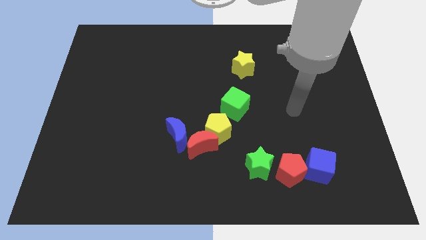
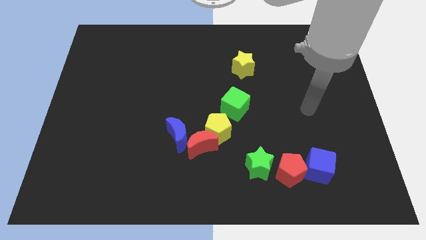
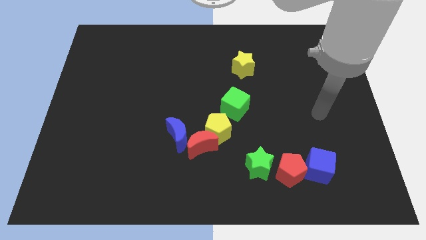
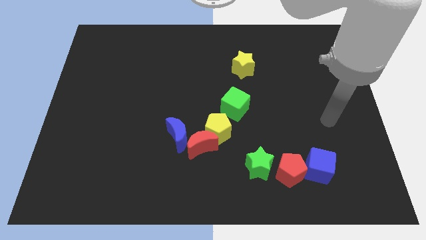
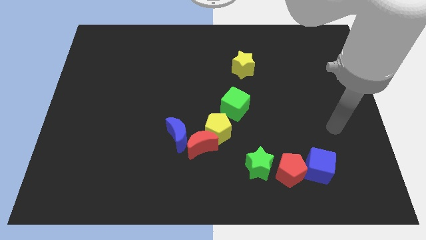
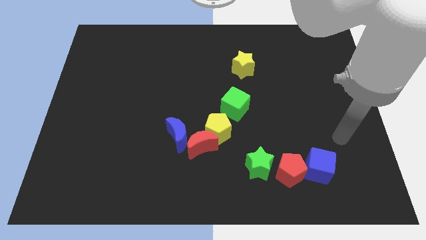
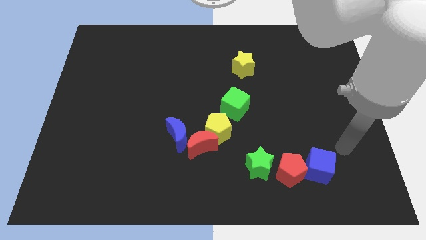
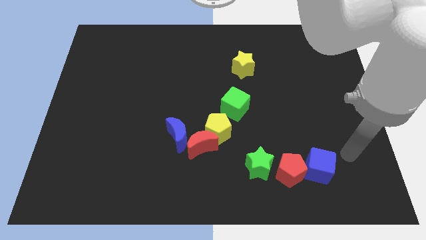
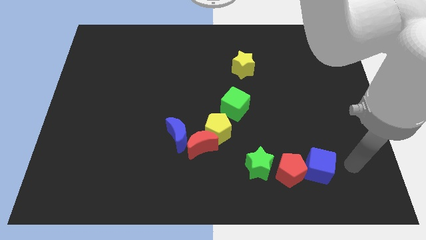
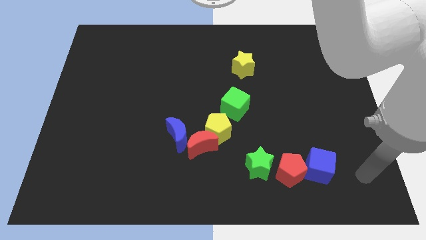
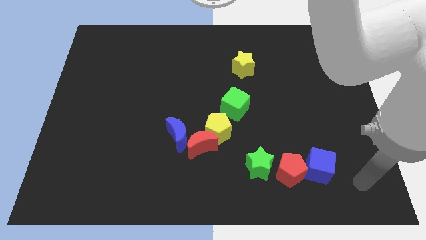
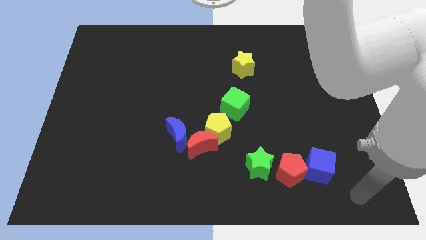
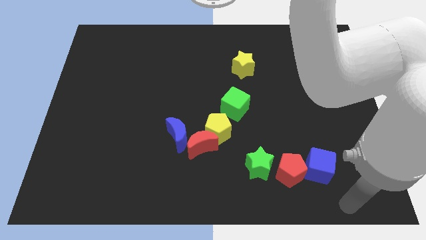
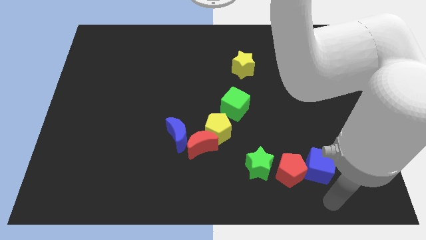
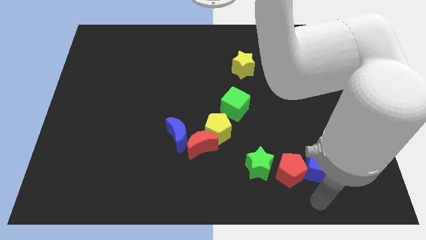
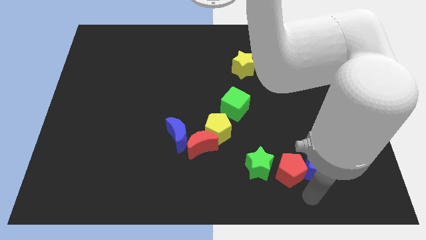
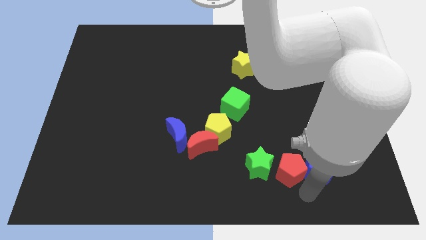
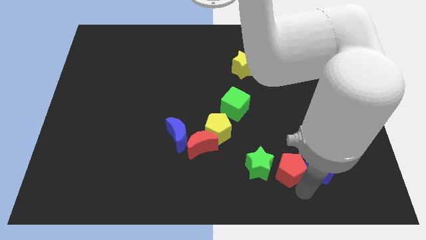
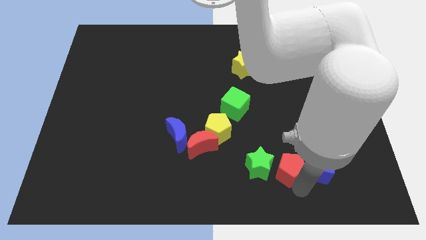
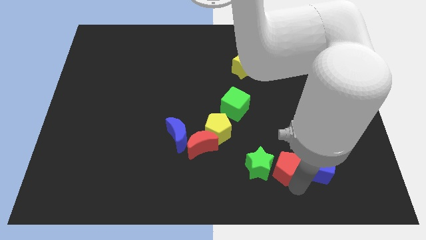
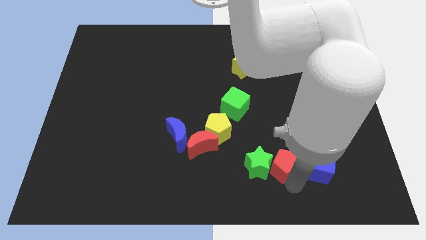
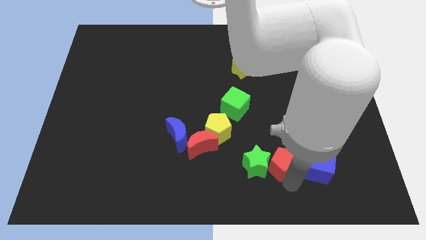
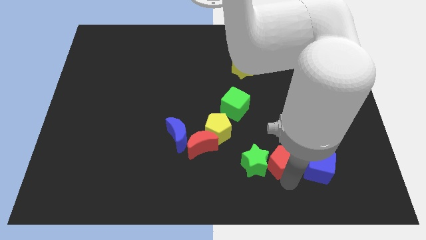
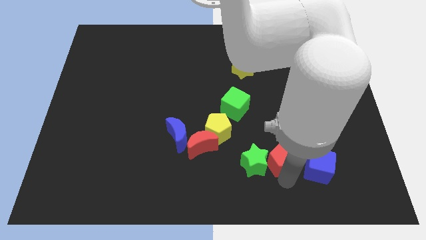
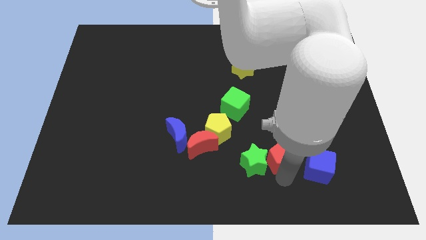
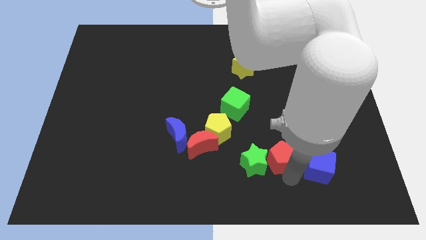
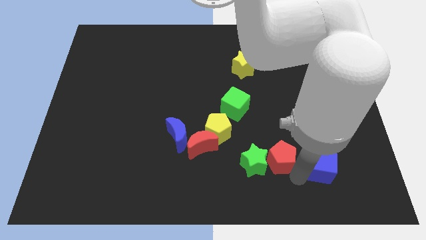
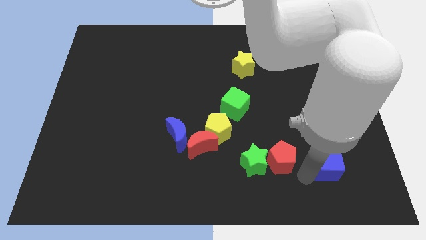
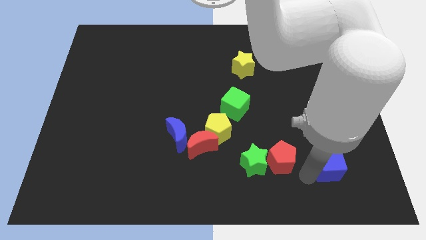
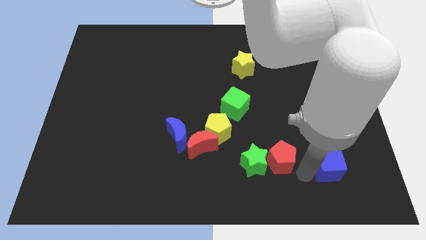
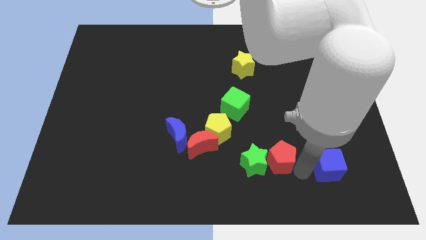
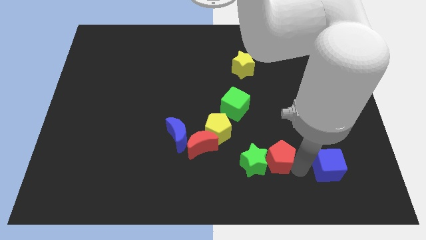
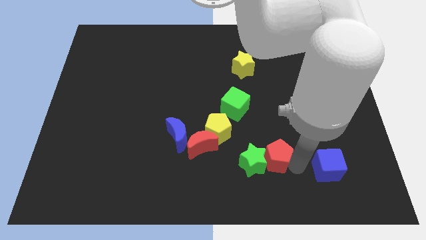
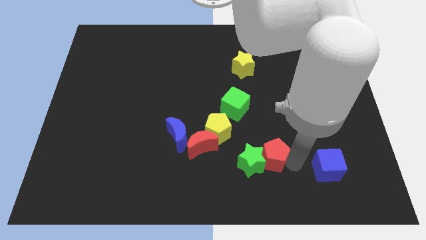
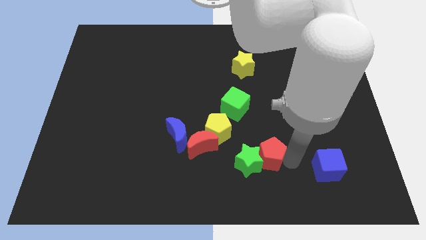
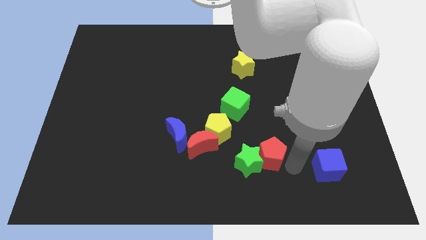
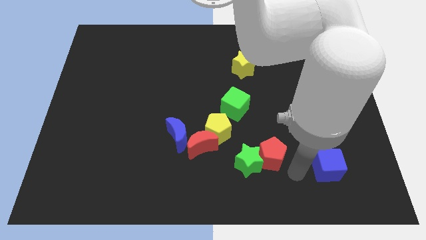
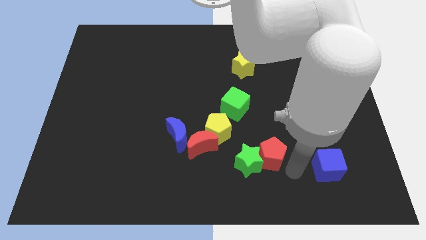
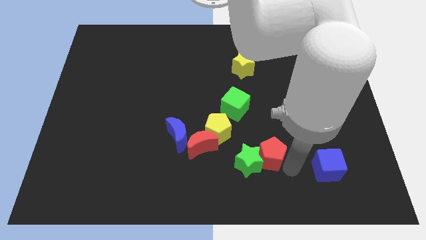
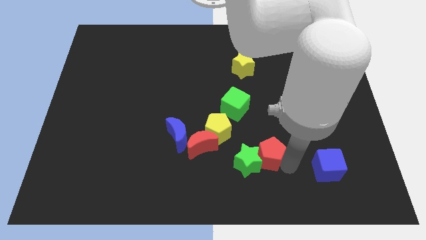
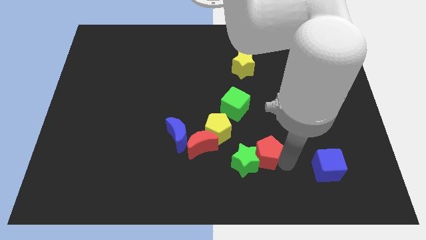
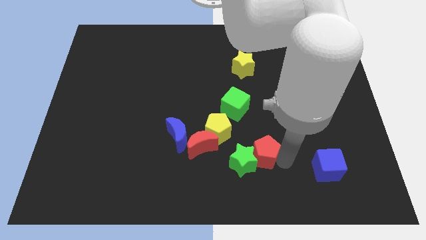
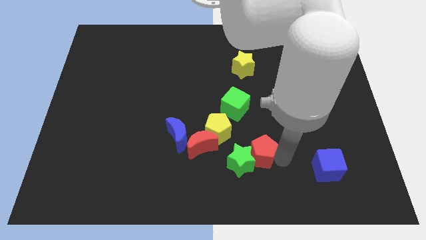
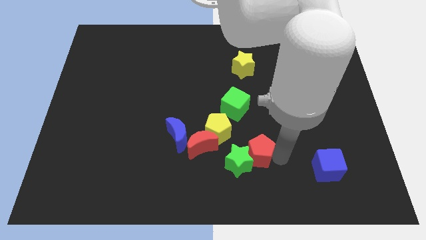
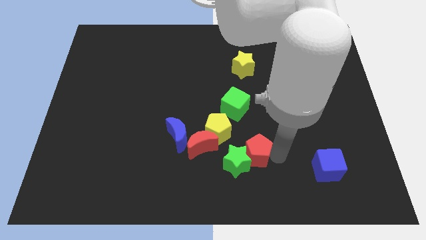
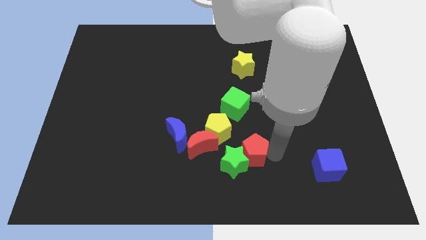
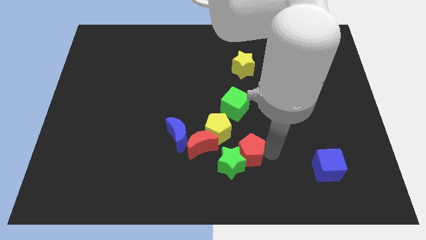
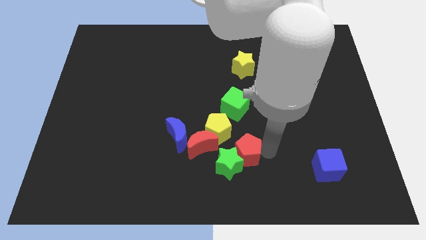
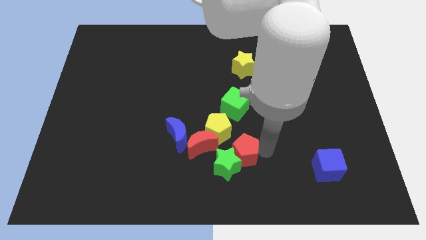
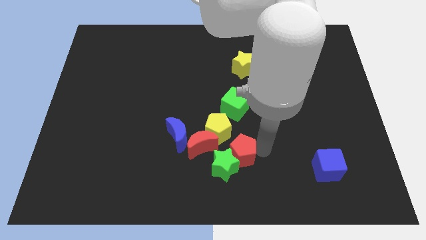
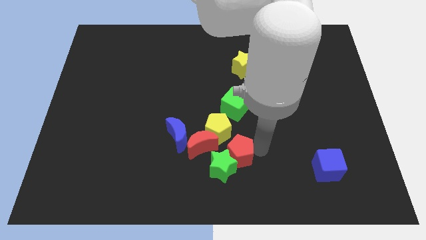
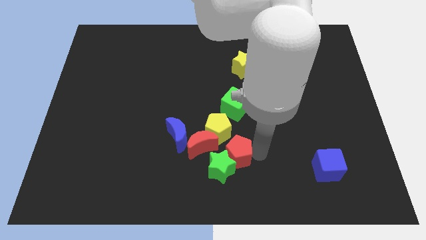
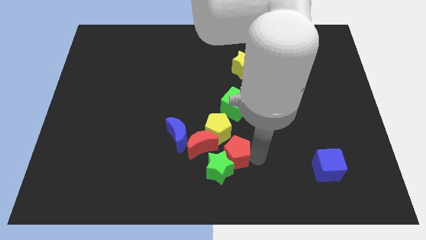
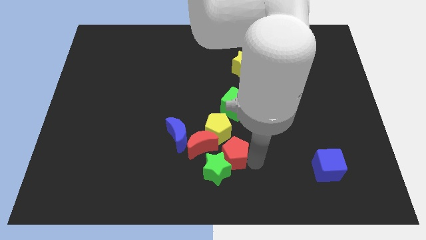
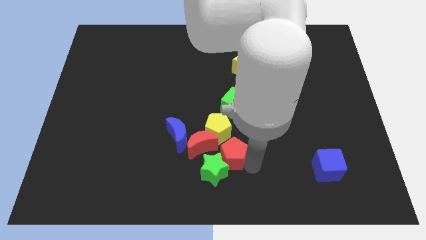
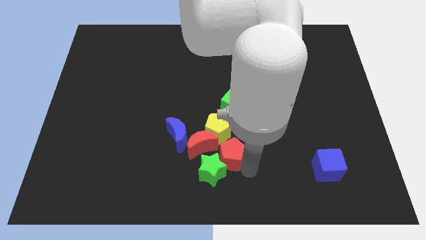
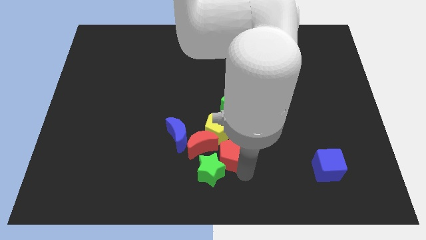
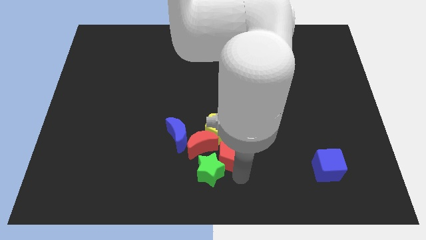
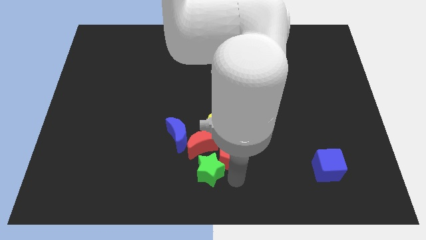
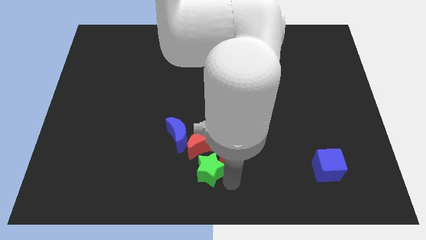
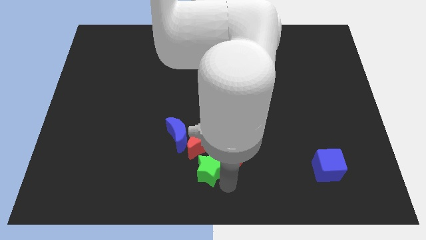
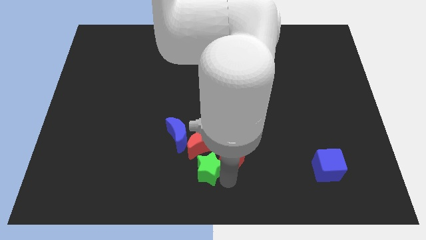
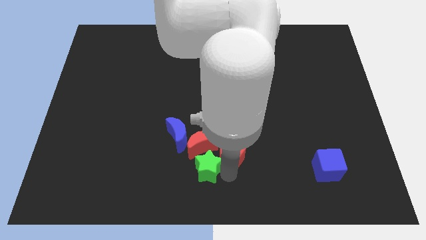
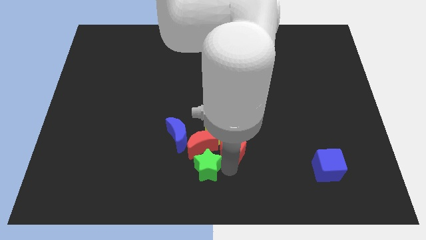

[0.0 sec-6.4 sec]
move the red pentagon towards the yellow pentagon

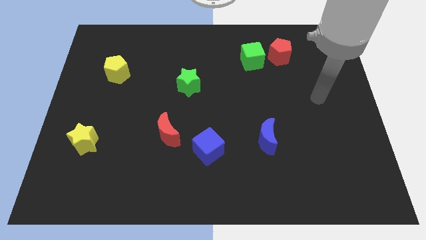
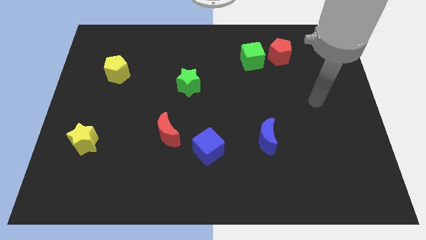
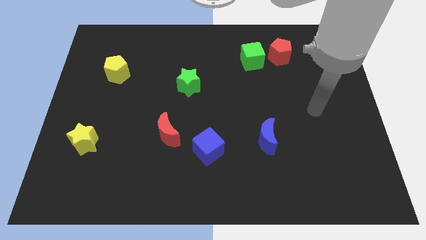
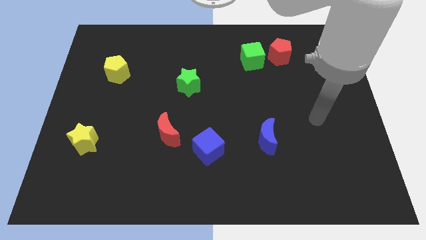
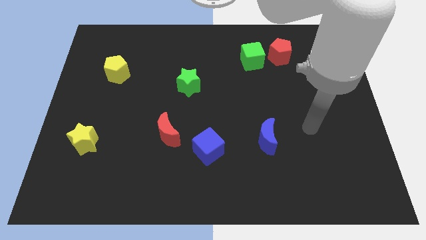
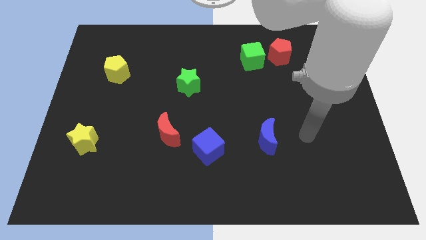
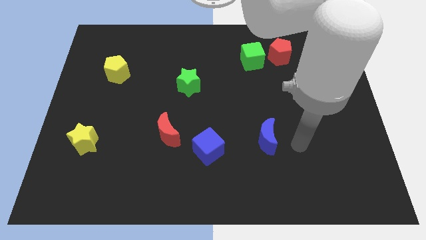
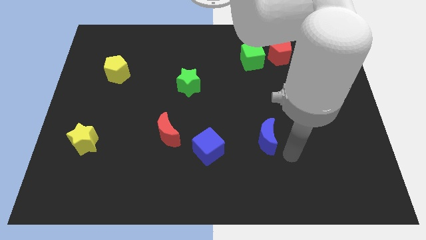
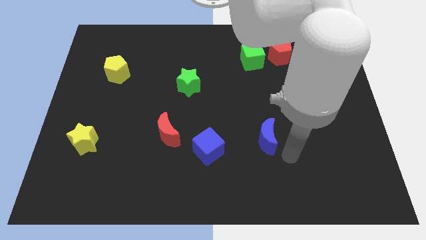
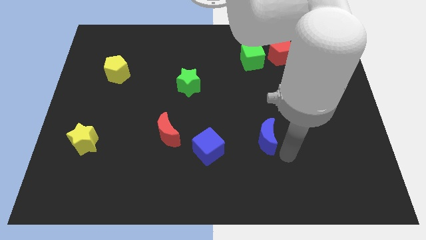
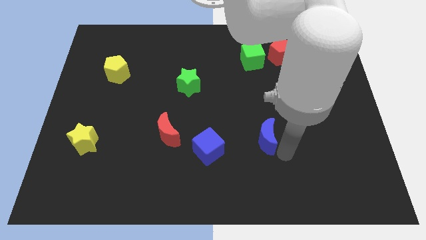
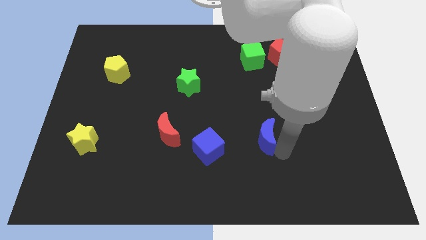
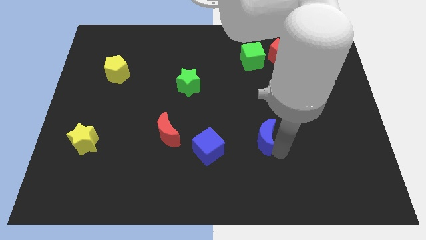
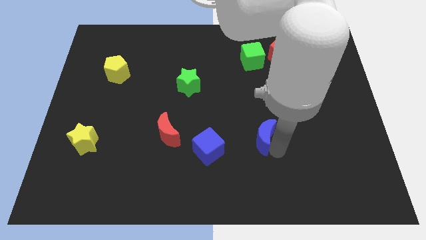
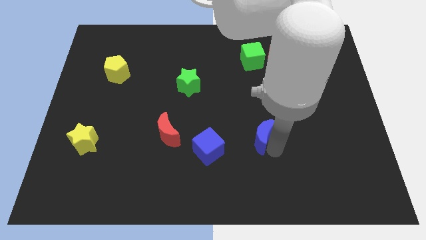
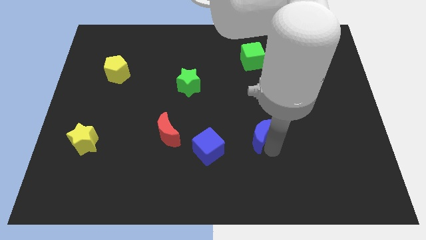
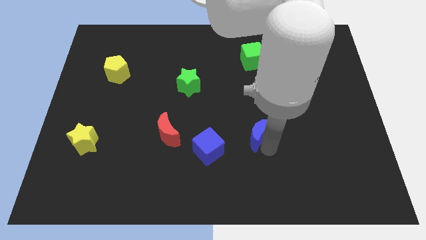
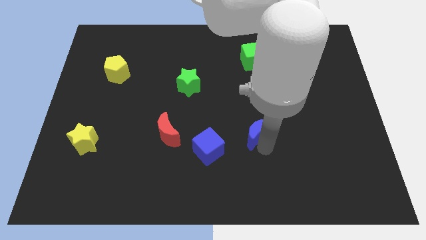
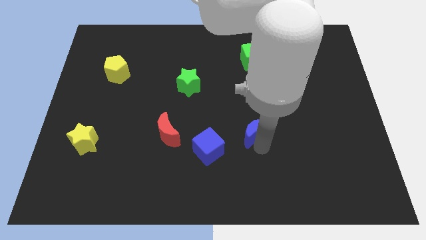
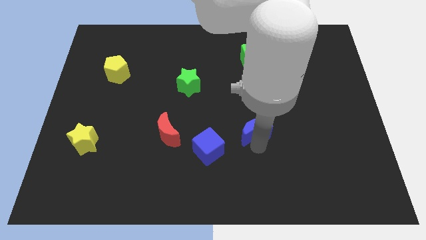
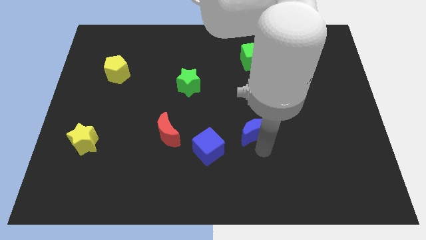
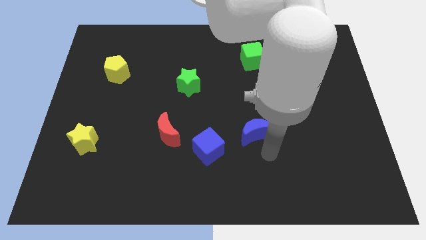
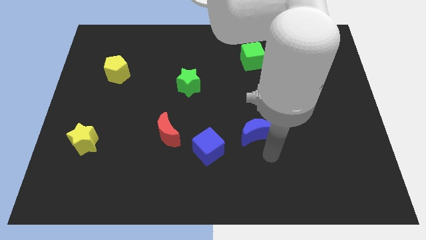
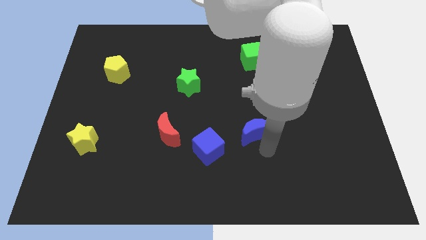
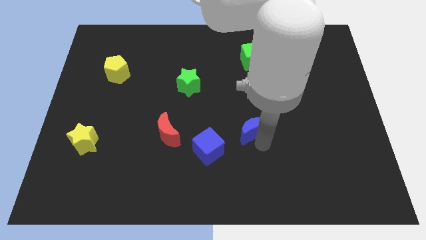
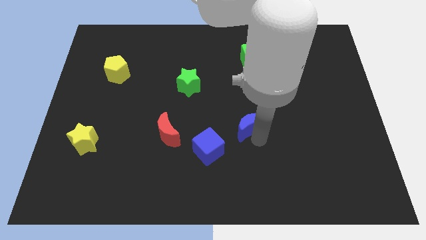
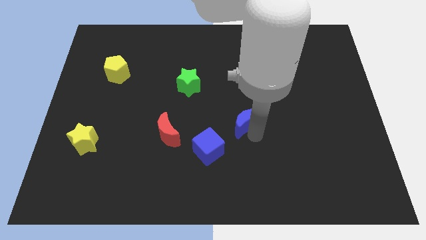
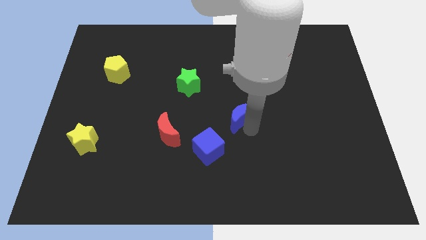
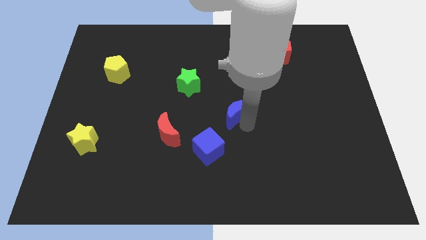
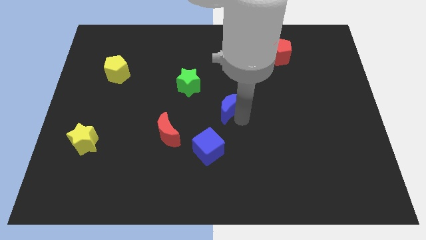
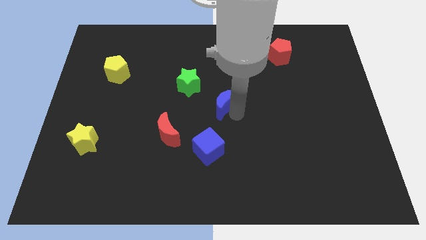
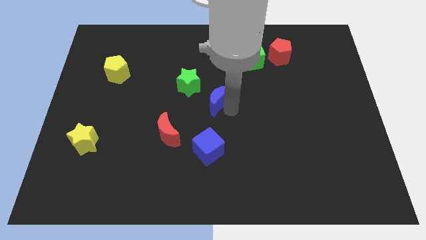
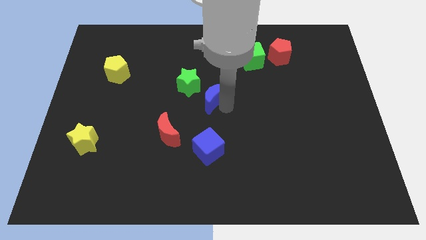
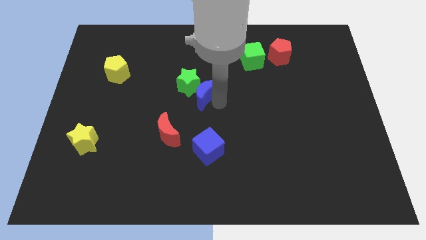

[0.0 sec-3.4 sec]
move the blue moon towards the green star
